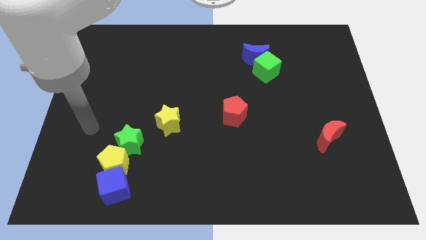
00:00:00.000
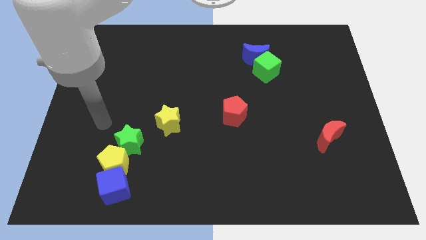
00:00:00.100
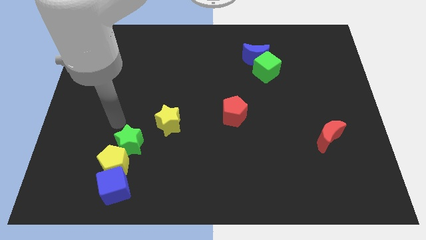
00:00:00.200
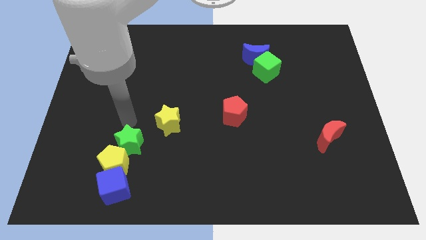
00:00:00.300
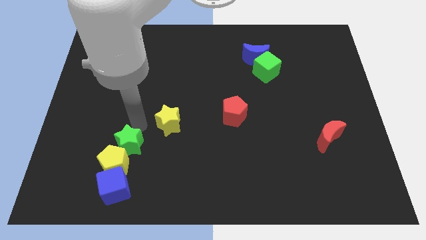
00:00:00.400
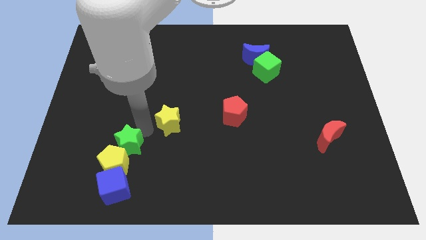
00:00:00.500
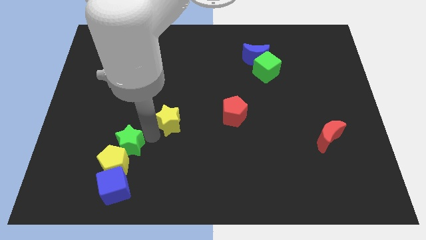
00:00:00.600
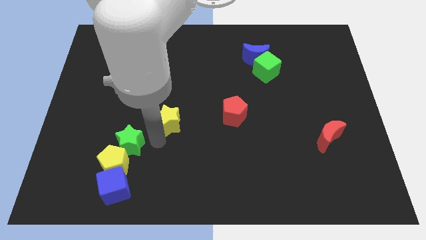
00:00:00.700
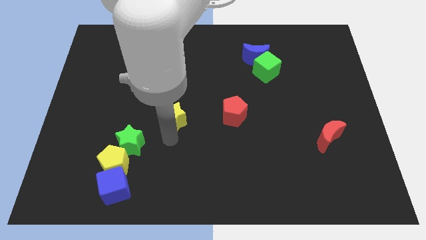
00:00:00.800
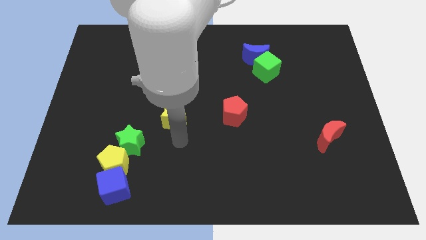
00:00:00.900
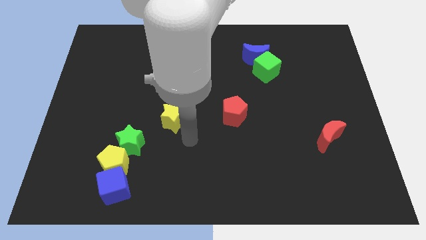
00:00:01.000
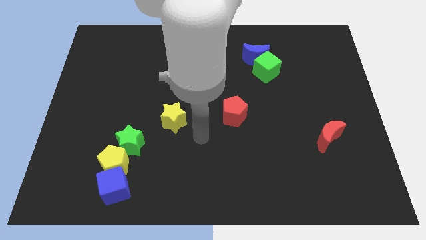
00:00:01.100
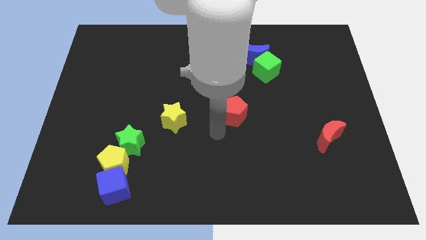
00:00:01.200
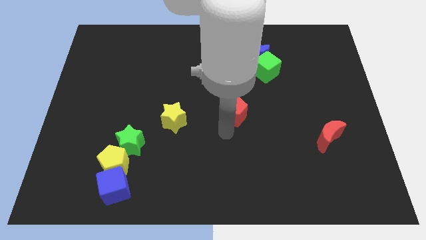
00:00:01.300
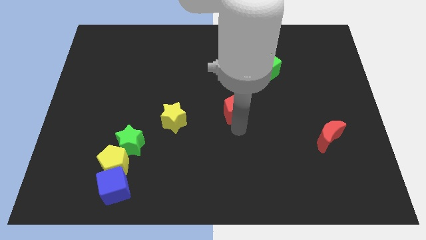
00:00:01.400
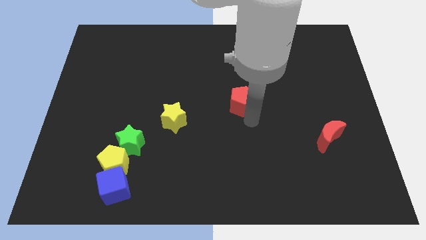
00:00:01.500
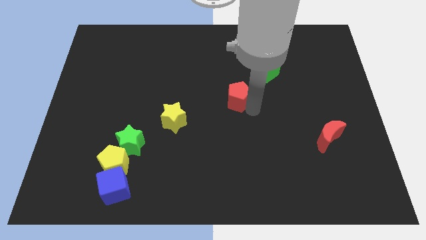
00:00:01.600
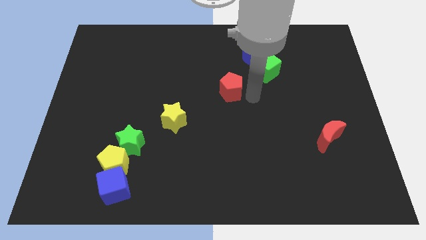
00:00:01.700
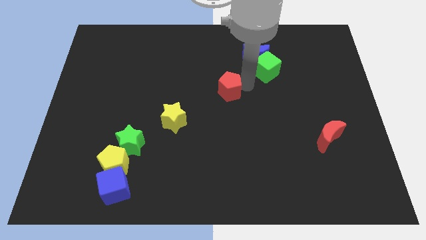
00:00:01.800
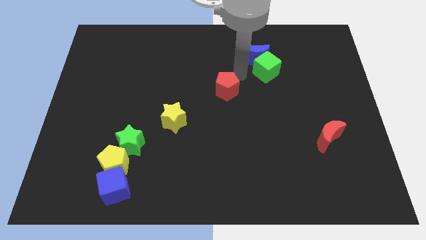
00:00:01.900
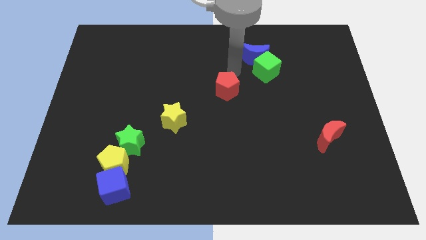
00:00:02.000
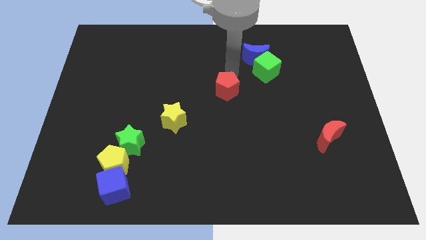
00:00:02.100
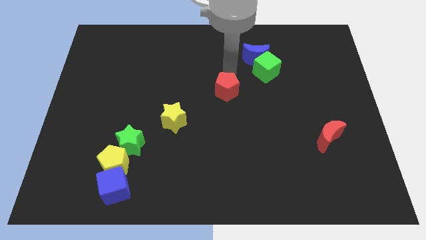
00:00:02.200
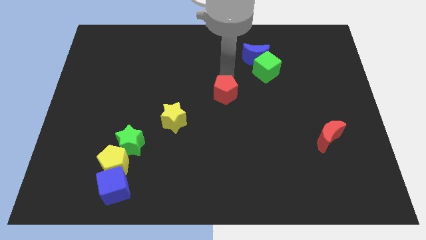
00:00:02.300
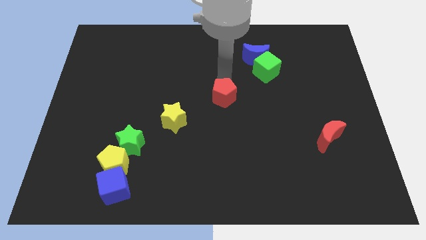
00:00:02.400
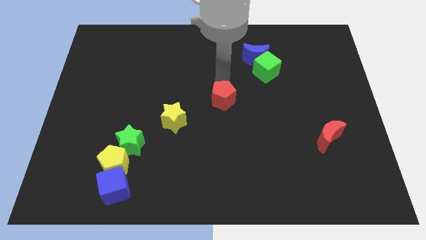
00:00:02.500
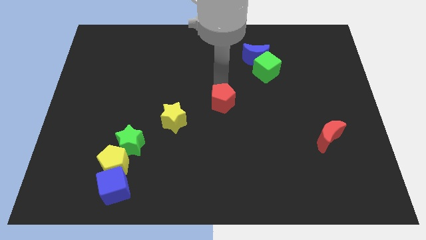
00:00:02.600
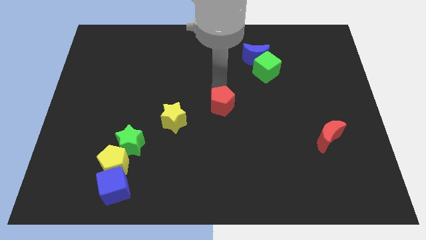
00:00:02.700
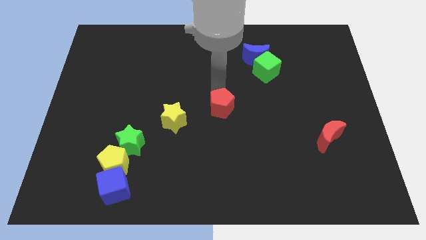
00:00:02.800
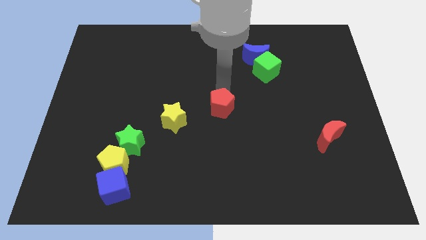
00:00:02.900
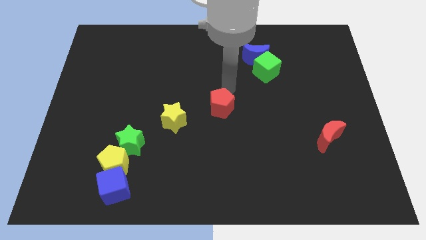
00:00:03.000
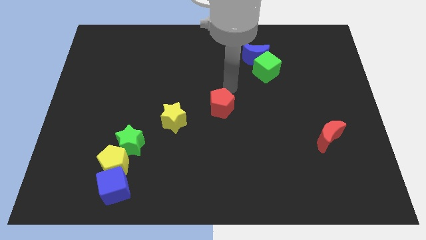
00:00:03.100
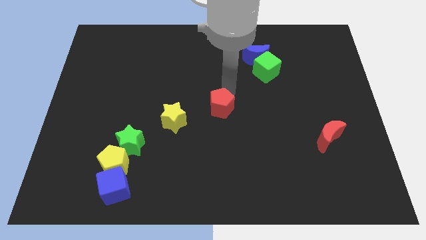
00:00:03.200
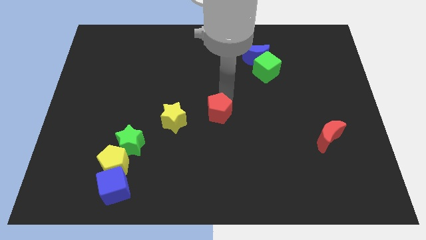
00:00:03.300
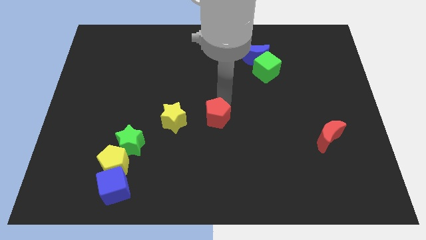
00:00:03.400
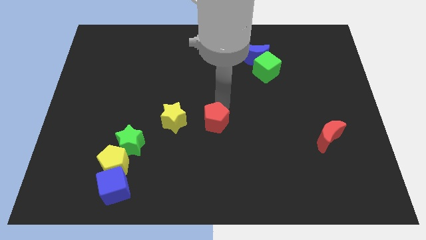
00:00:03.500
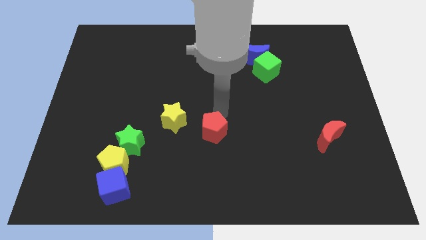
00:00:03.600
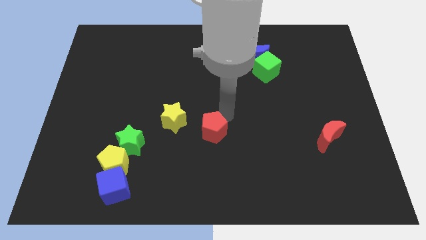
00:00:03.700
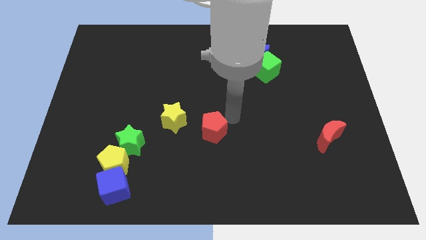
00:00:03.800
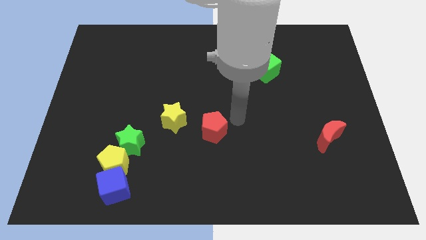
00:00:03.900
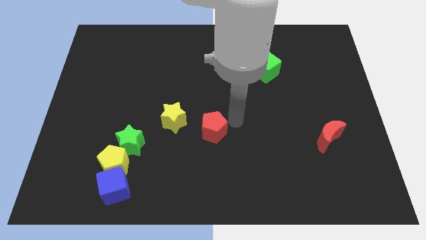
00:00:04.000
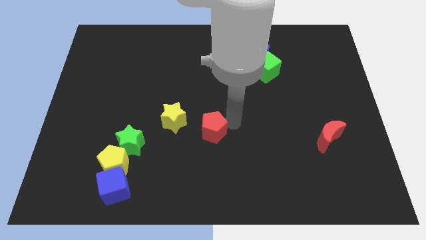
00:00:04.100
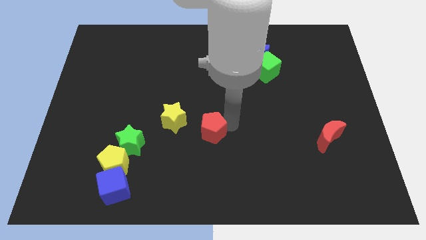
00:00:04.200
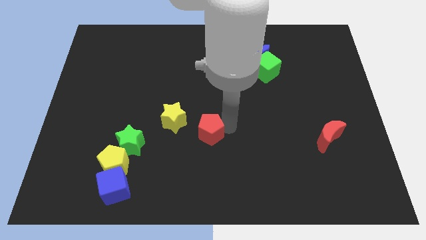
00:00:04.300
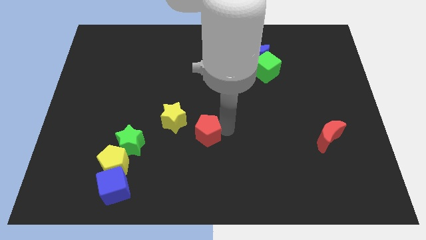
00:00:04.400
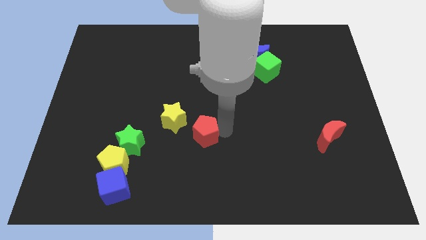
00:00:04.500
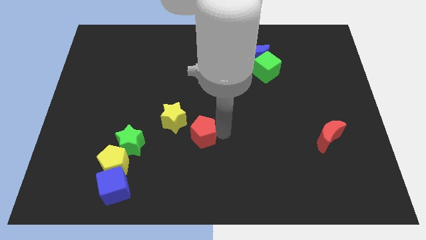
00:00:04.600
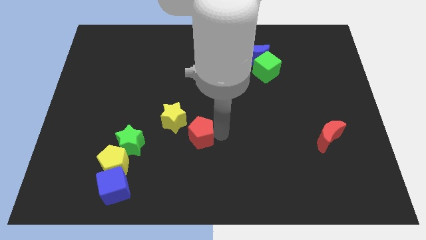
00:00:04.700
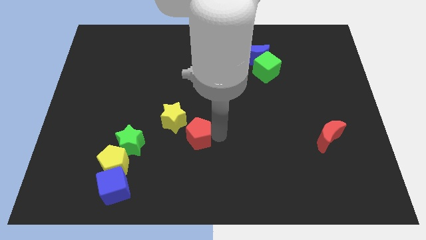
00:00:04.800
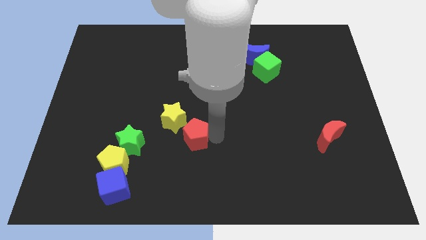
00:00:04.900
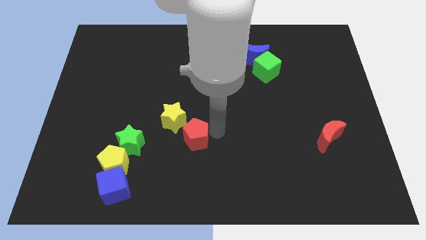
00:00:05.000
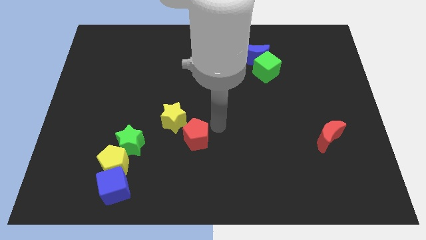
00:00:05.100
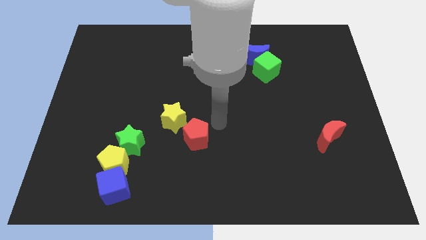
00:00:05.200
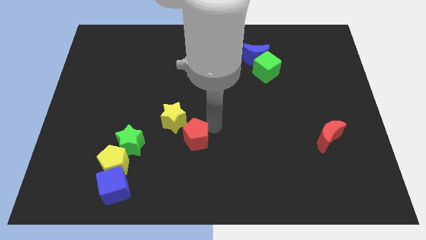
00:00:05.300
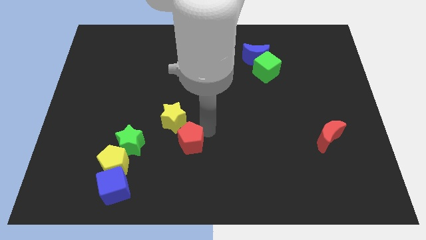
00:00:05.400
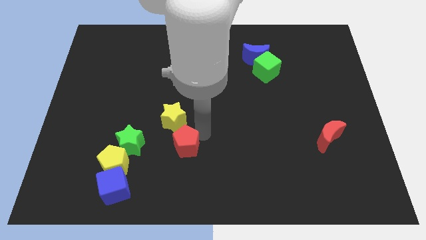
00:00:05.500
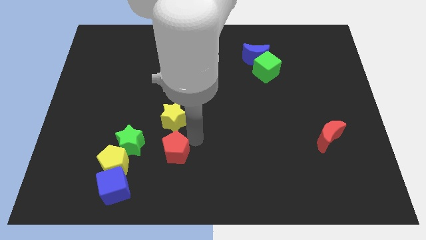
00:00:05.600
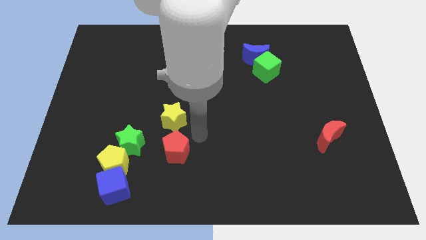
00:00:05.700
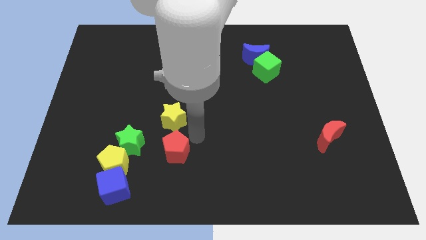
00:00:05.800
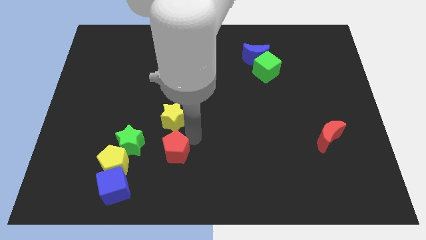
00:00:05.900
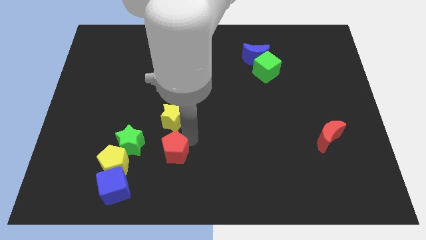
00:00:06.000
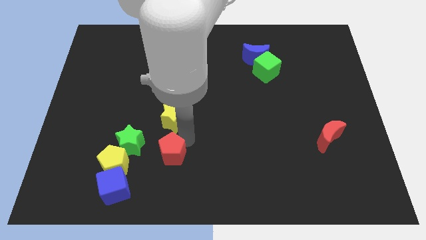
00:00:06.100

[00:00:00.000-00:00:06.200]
put the red pentagon to the bottom right side of the green star
